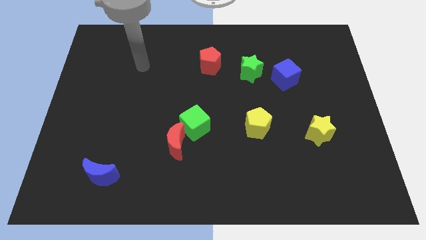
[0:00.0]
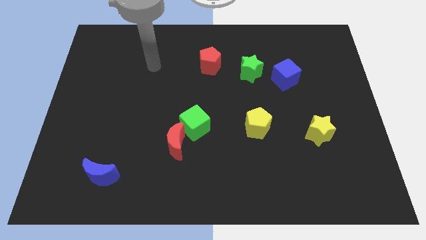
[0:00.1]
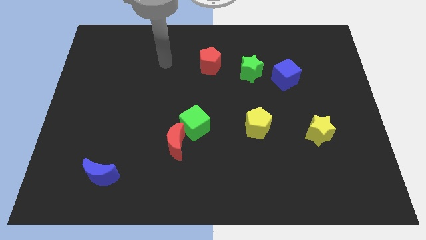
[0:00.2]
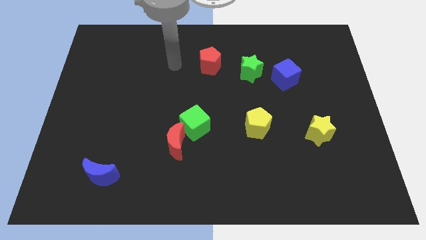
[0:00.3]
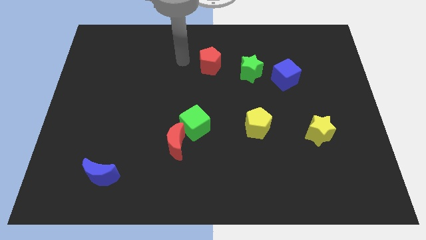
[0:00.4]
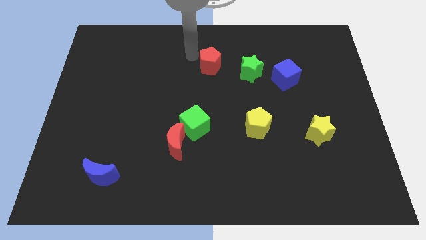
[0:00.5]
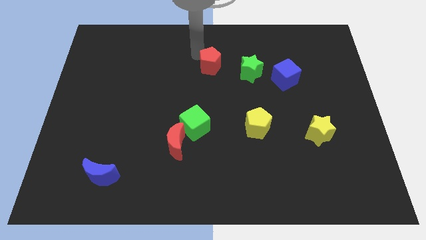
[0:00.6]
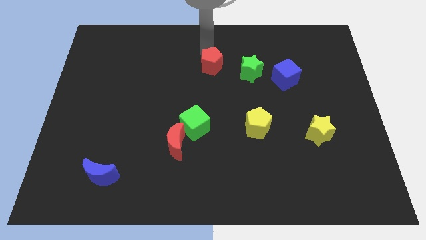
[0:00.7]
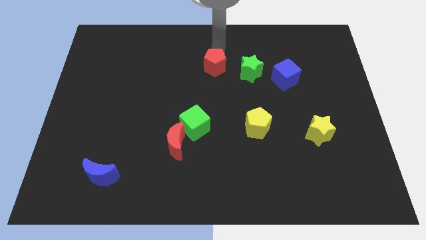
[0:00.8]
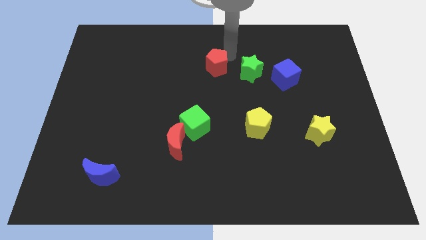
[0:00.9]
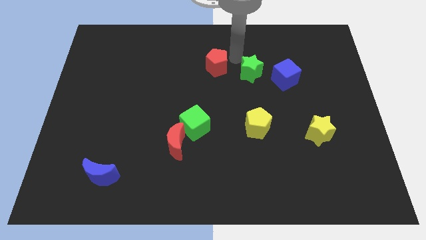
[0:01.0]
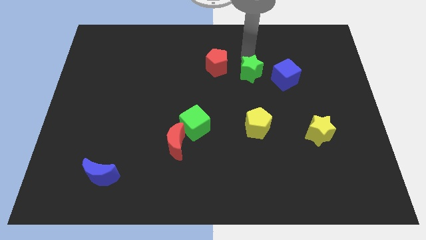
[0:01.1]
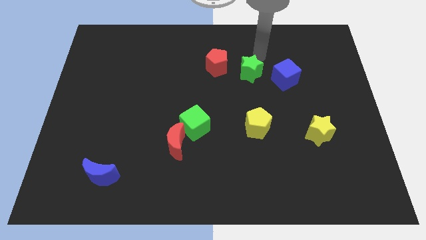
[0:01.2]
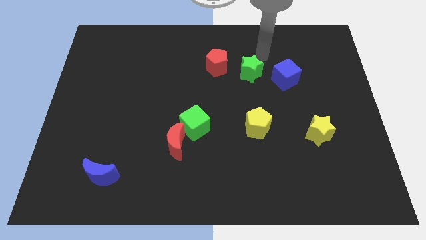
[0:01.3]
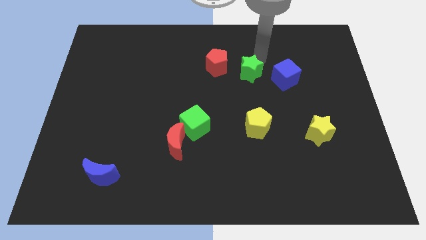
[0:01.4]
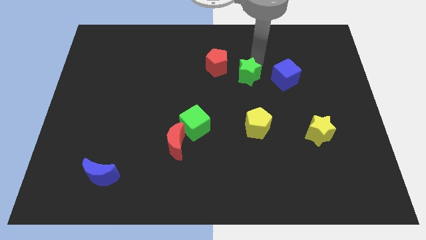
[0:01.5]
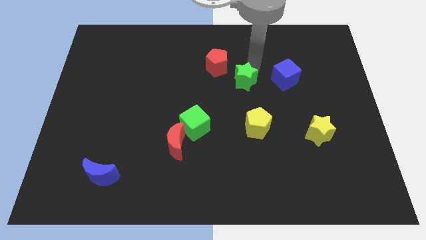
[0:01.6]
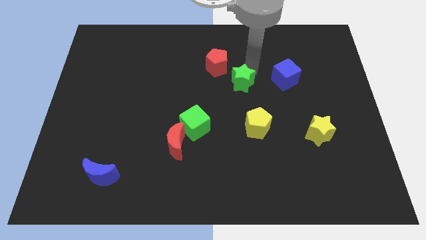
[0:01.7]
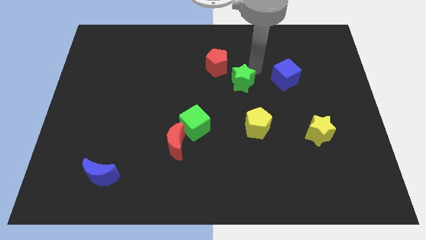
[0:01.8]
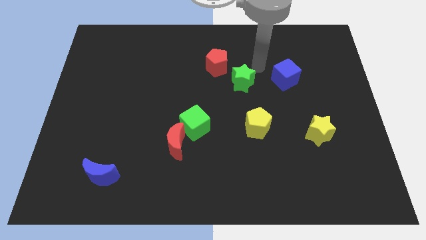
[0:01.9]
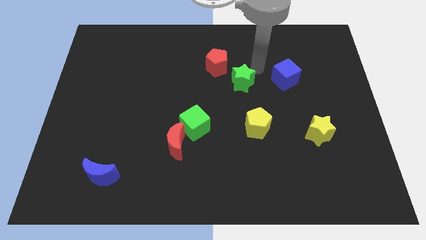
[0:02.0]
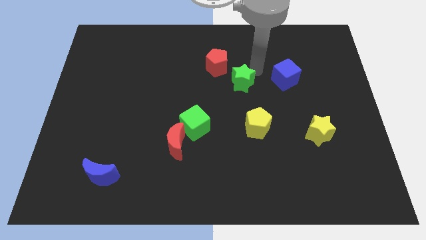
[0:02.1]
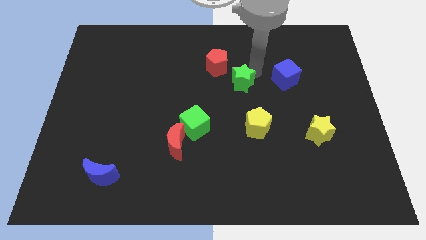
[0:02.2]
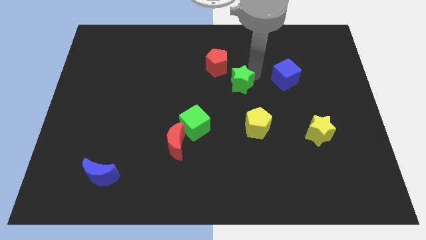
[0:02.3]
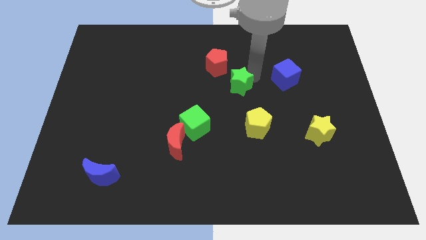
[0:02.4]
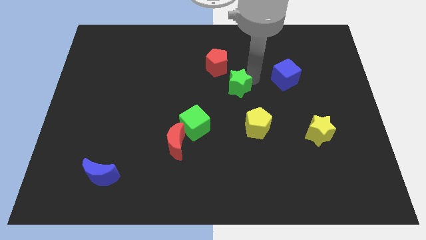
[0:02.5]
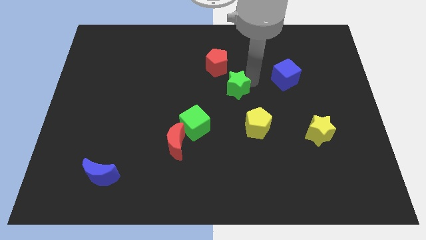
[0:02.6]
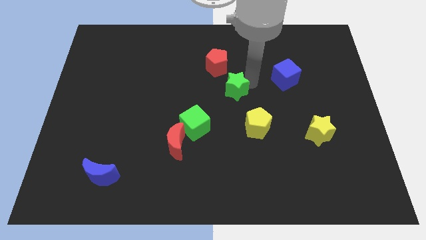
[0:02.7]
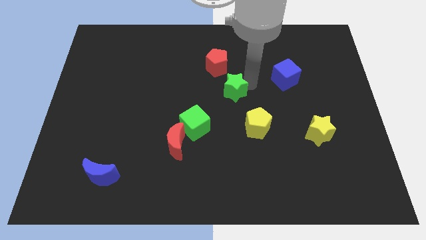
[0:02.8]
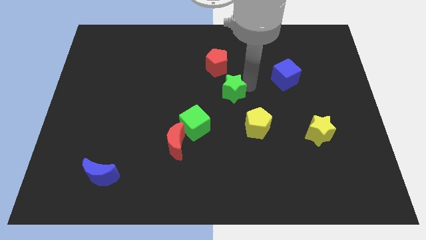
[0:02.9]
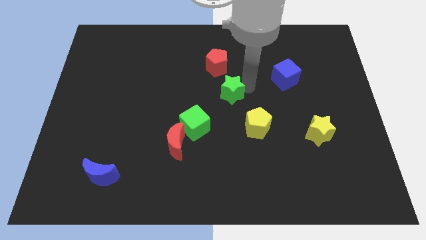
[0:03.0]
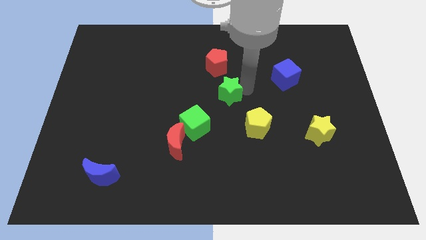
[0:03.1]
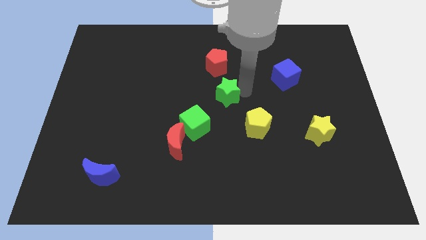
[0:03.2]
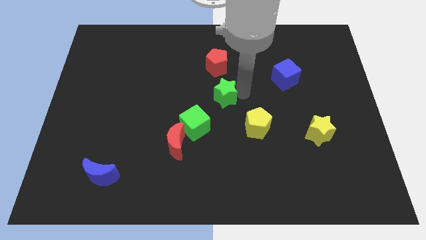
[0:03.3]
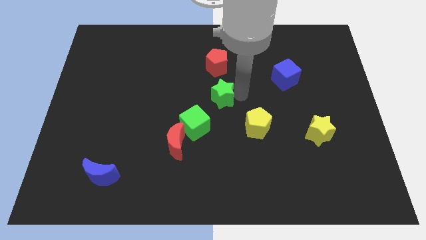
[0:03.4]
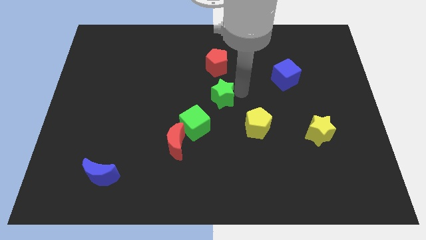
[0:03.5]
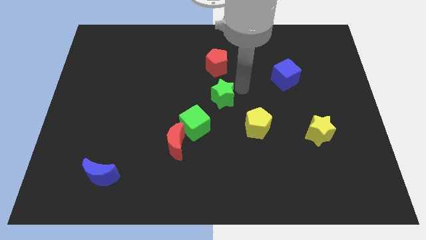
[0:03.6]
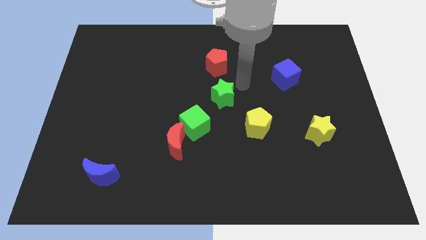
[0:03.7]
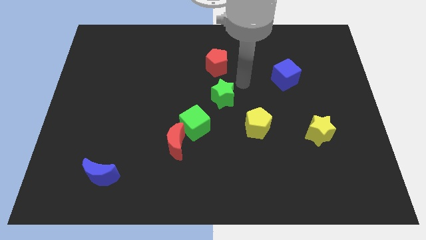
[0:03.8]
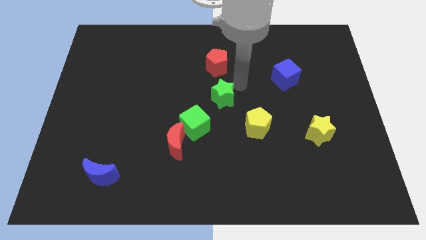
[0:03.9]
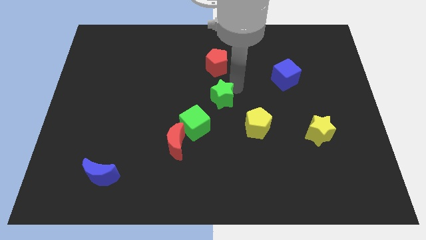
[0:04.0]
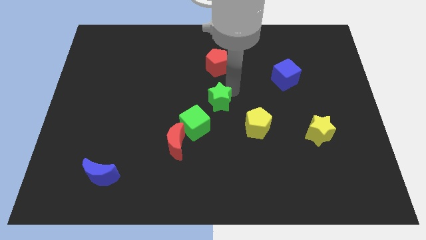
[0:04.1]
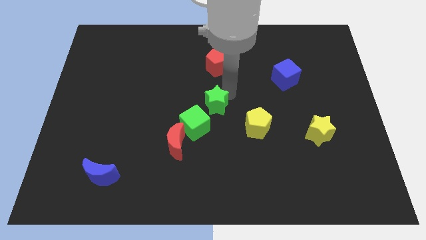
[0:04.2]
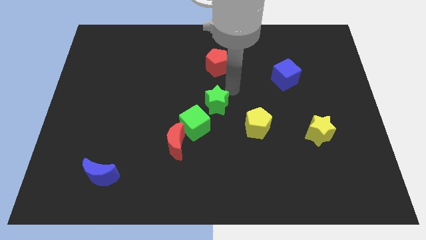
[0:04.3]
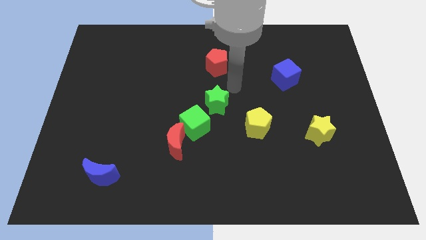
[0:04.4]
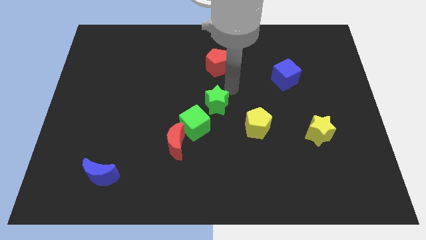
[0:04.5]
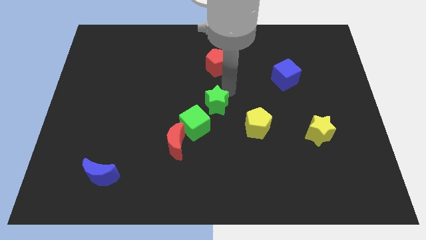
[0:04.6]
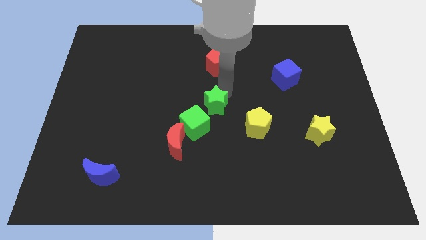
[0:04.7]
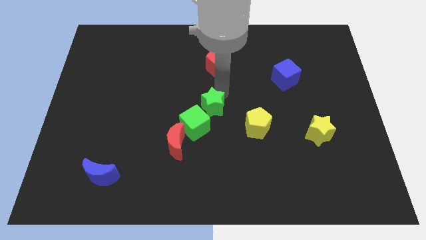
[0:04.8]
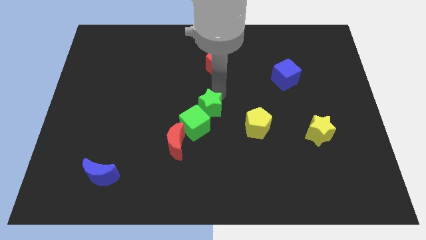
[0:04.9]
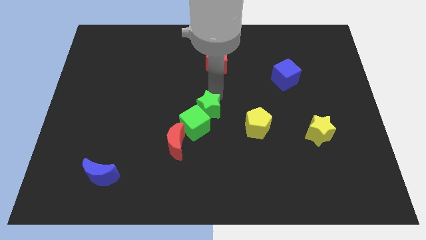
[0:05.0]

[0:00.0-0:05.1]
move the green star close to the green cube
